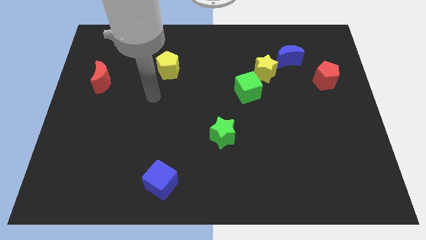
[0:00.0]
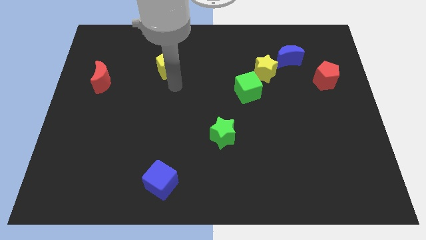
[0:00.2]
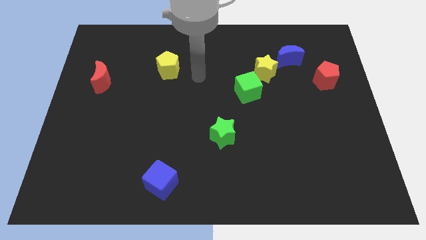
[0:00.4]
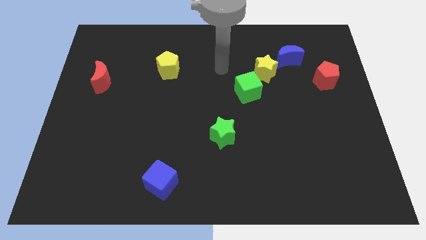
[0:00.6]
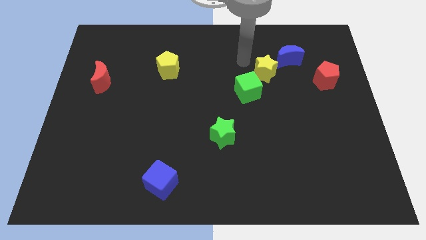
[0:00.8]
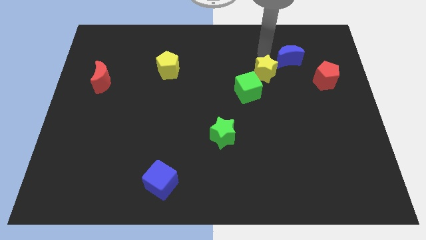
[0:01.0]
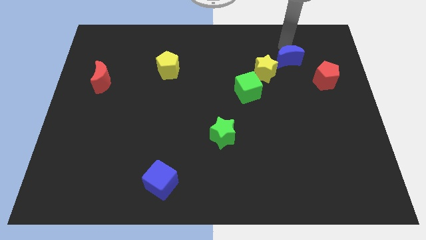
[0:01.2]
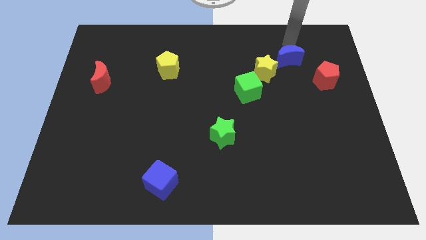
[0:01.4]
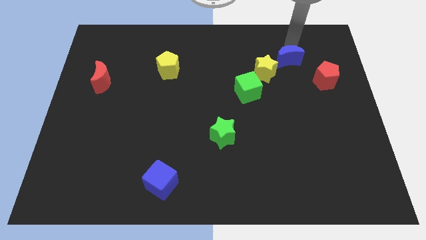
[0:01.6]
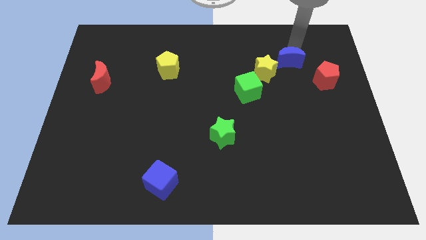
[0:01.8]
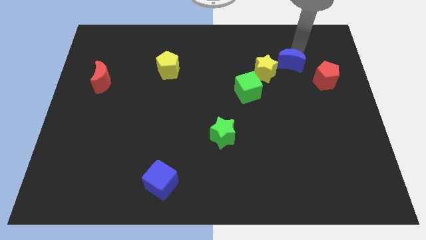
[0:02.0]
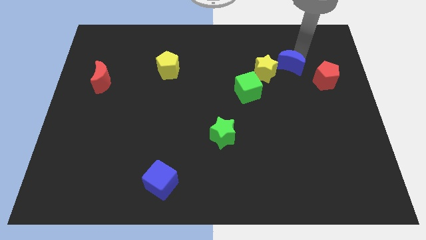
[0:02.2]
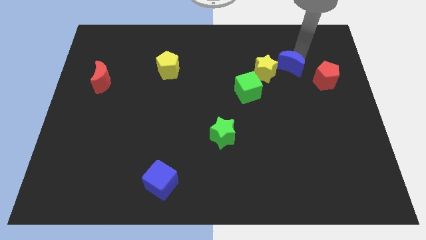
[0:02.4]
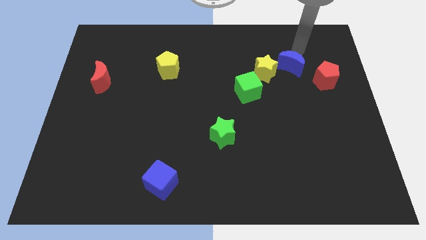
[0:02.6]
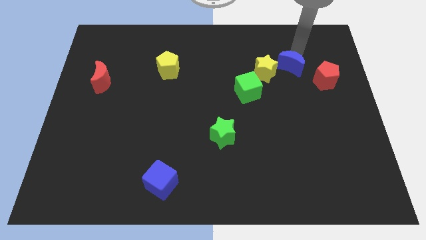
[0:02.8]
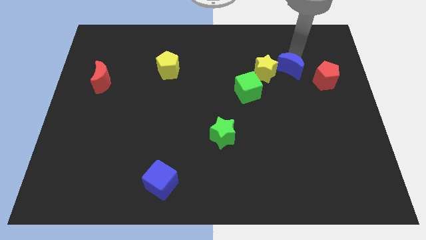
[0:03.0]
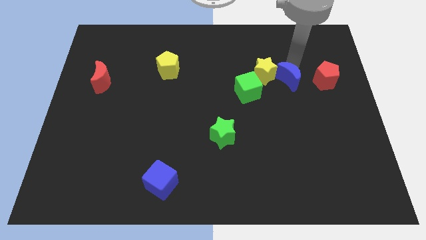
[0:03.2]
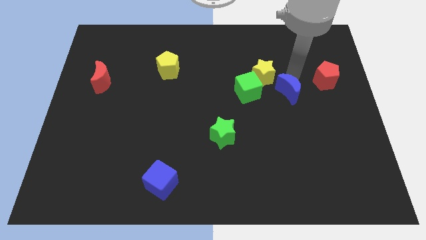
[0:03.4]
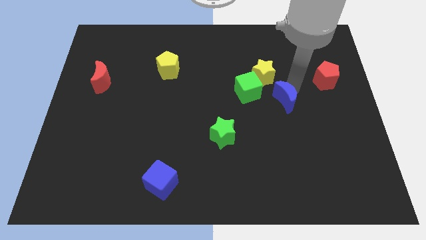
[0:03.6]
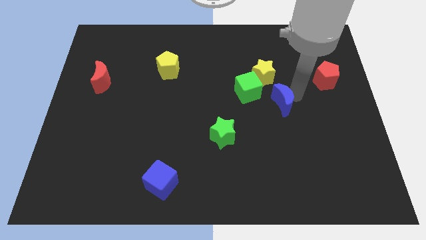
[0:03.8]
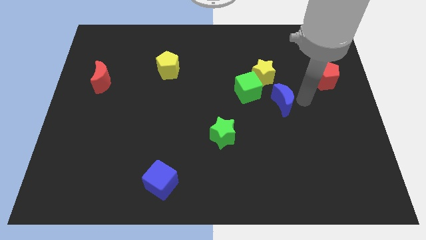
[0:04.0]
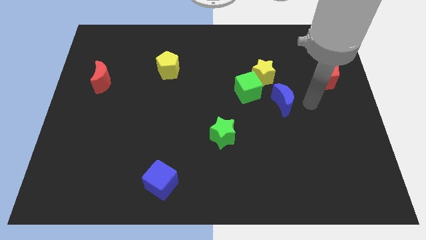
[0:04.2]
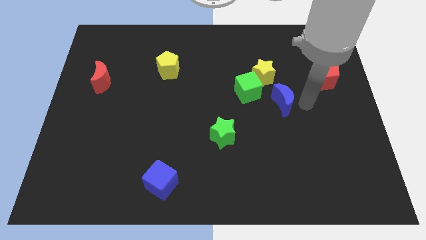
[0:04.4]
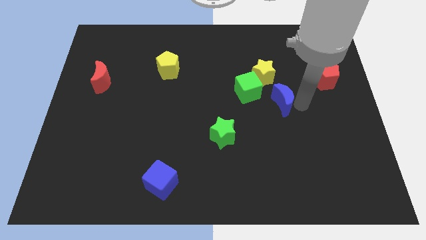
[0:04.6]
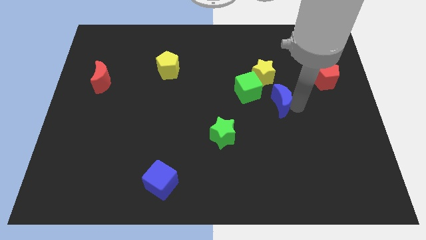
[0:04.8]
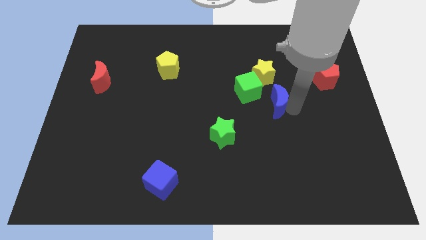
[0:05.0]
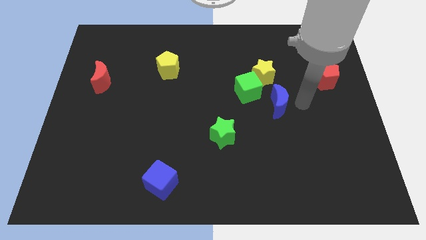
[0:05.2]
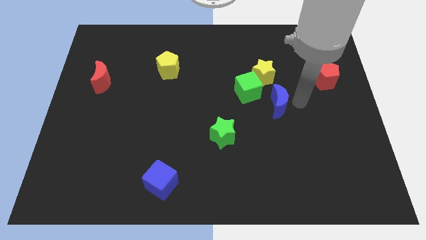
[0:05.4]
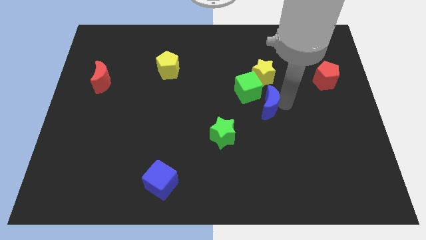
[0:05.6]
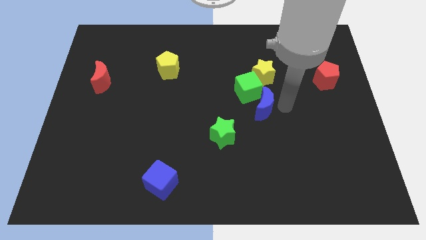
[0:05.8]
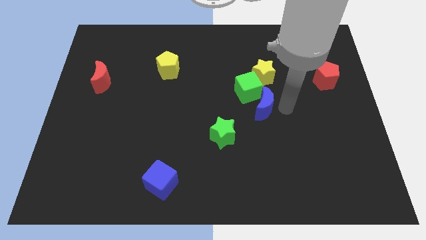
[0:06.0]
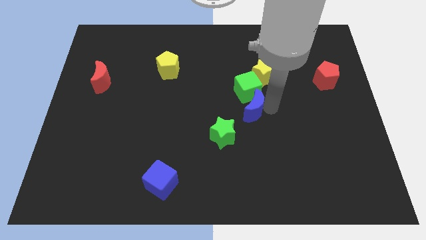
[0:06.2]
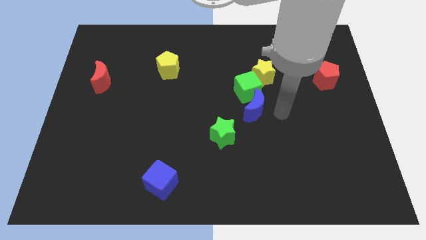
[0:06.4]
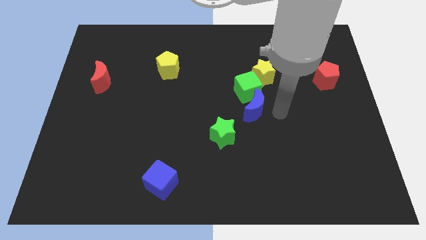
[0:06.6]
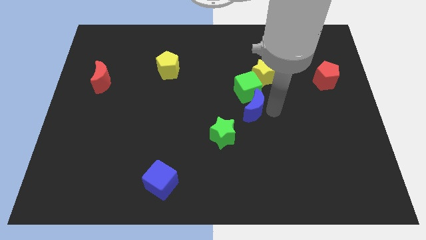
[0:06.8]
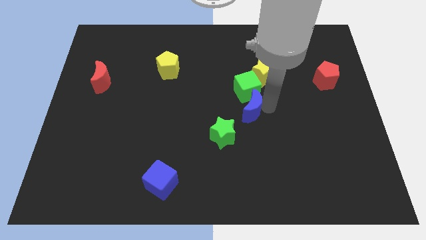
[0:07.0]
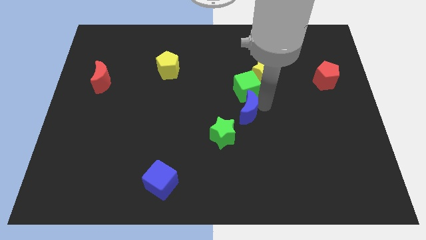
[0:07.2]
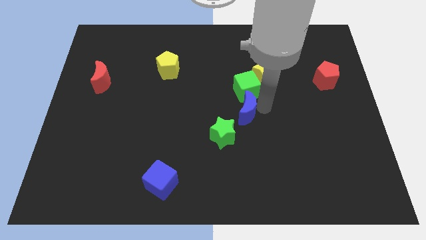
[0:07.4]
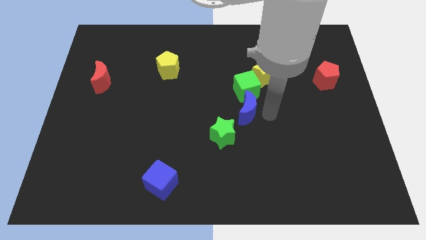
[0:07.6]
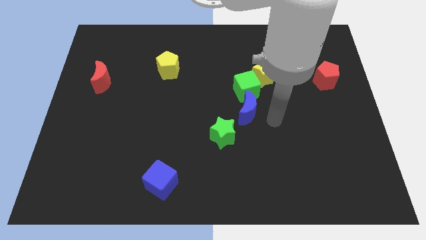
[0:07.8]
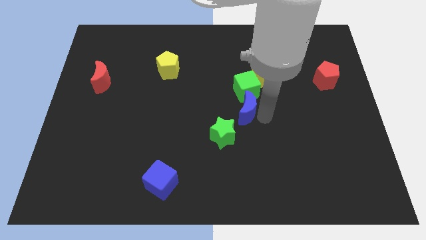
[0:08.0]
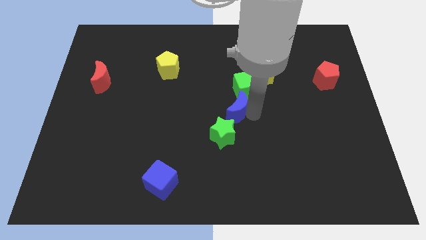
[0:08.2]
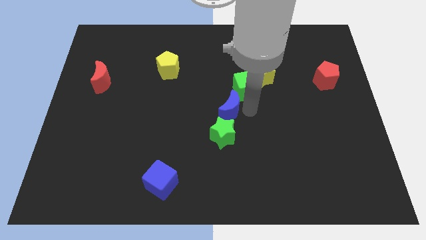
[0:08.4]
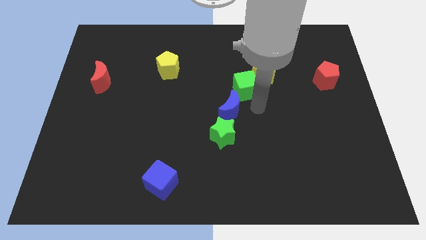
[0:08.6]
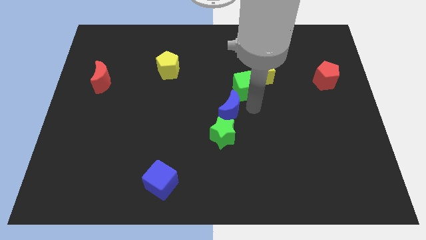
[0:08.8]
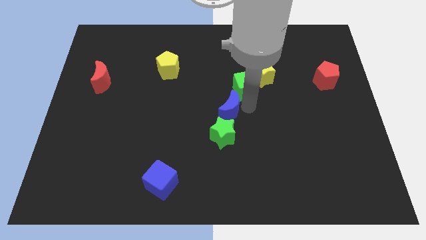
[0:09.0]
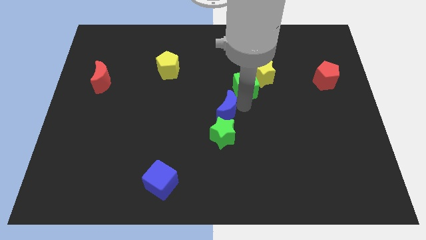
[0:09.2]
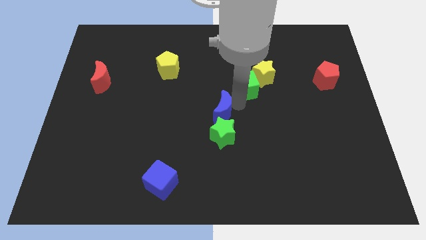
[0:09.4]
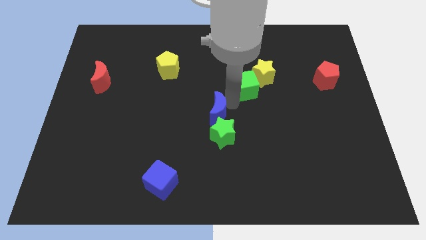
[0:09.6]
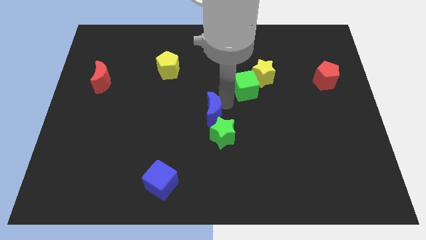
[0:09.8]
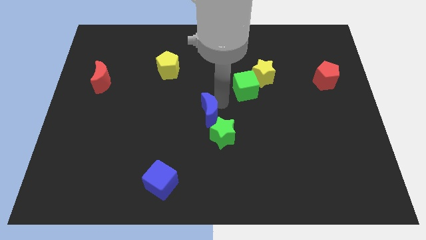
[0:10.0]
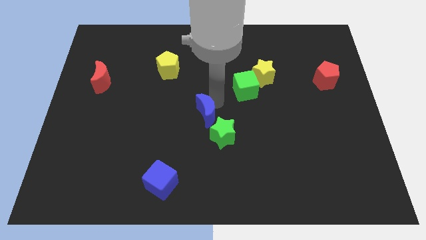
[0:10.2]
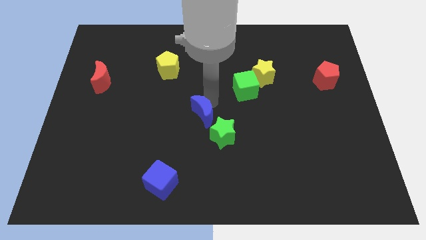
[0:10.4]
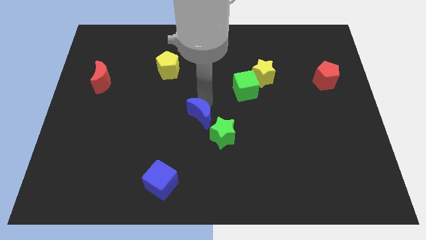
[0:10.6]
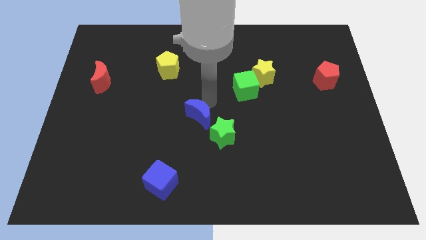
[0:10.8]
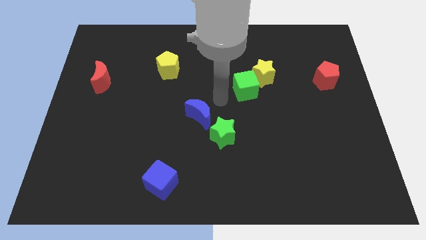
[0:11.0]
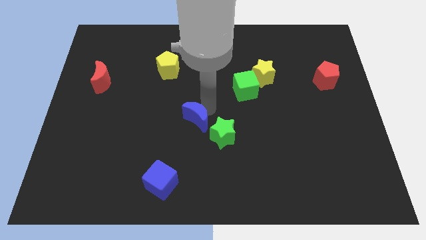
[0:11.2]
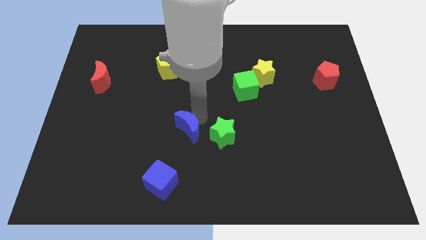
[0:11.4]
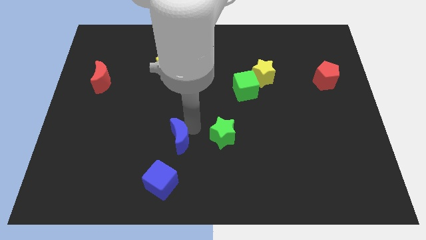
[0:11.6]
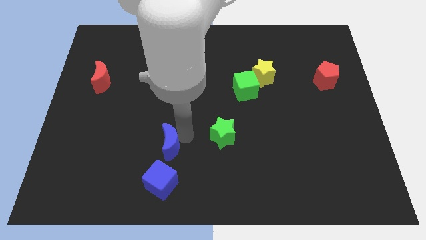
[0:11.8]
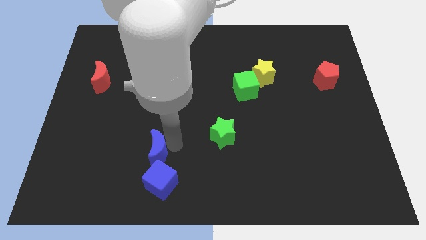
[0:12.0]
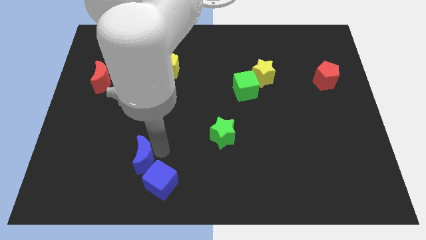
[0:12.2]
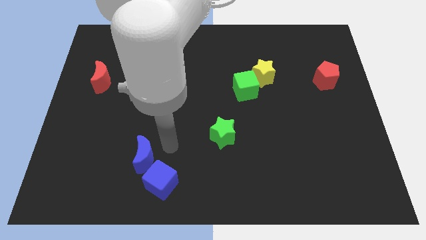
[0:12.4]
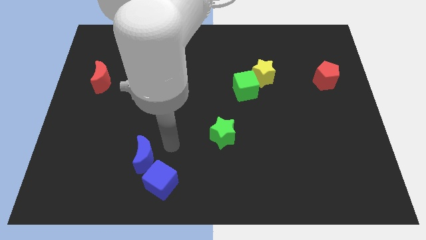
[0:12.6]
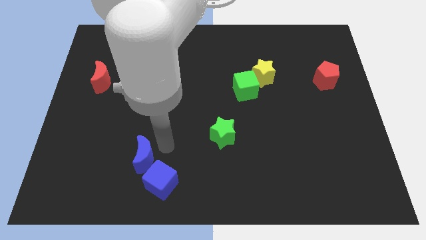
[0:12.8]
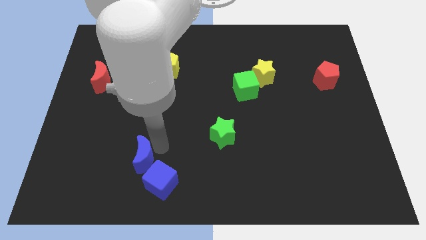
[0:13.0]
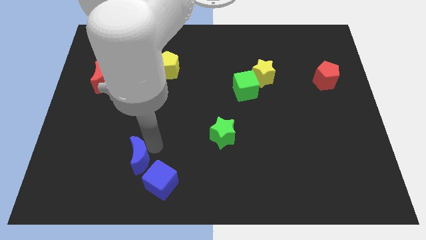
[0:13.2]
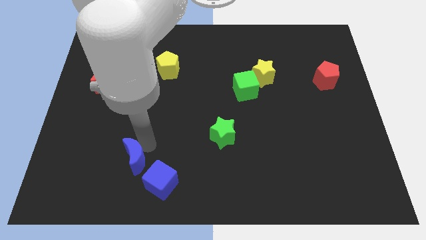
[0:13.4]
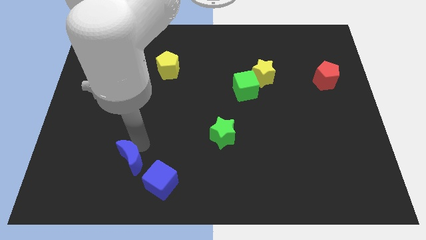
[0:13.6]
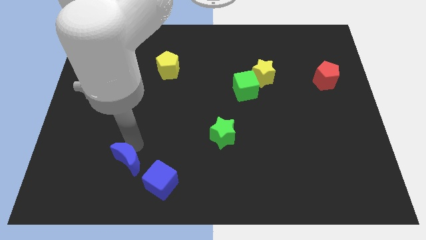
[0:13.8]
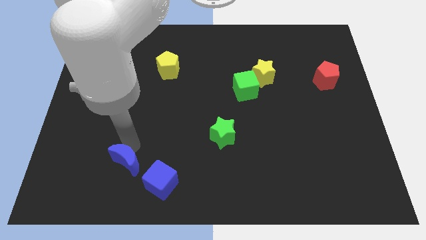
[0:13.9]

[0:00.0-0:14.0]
move the blue moon to the left side of the blue cube

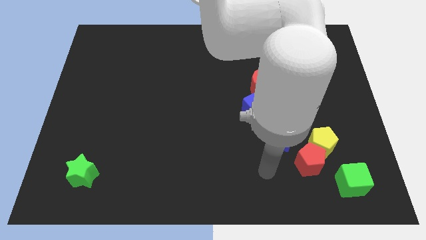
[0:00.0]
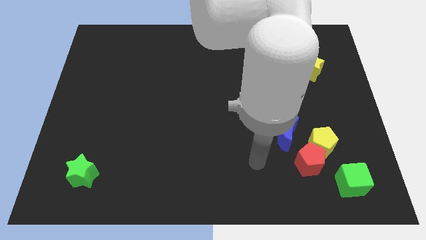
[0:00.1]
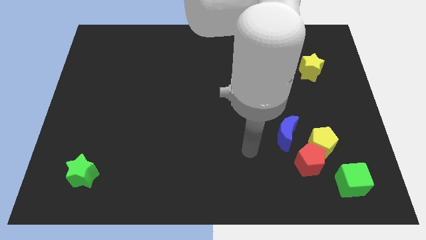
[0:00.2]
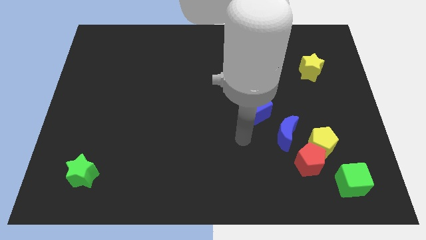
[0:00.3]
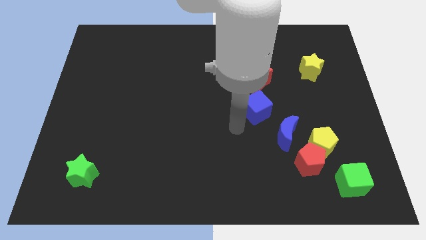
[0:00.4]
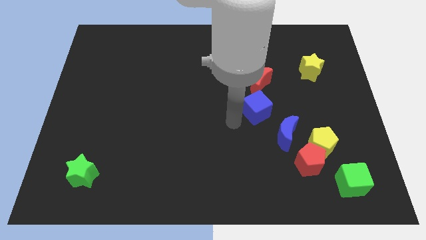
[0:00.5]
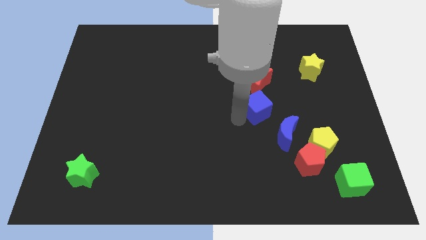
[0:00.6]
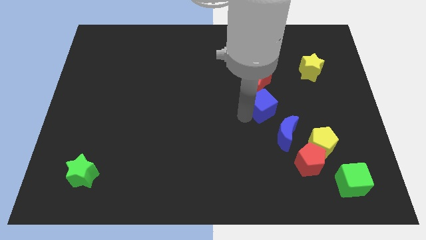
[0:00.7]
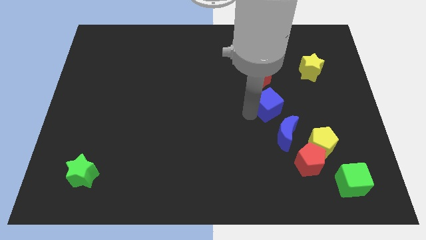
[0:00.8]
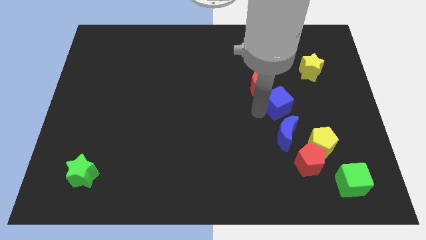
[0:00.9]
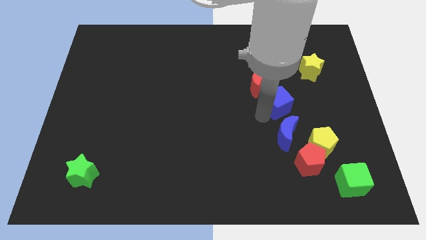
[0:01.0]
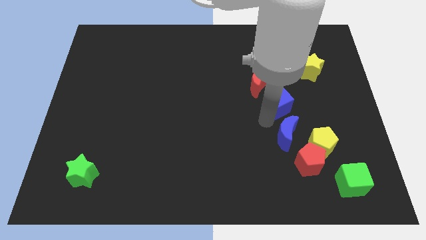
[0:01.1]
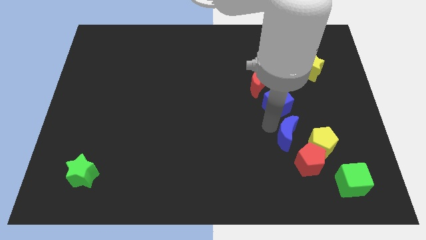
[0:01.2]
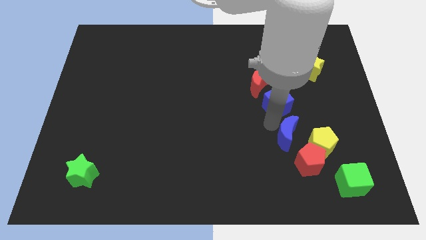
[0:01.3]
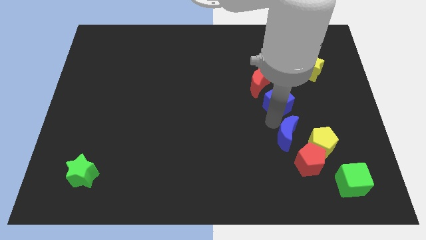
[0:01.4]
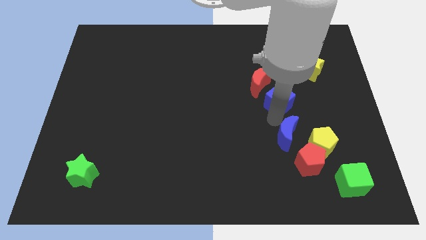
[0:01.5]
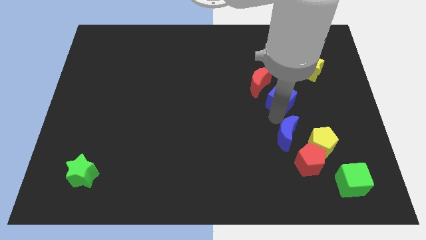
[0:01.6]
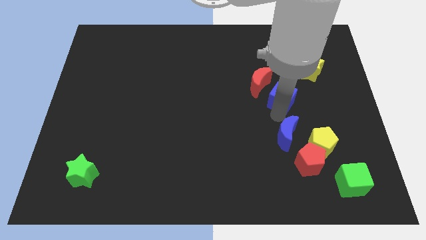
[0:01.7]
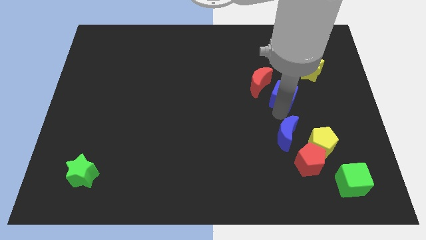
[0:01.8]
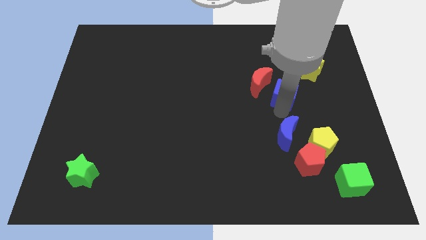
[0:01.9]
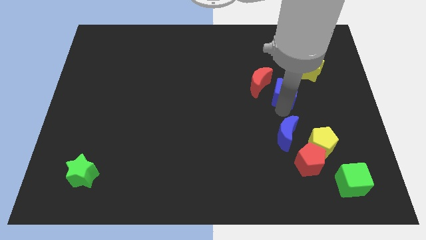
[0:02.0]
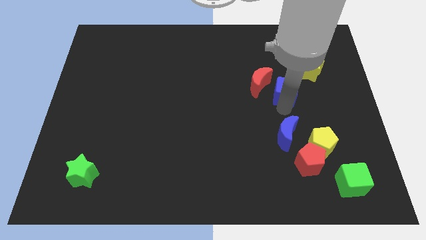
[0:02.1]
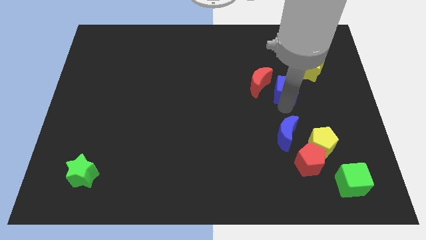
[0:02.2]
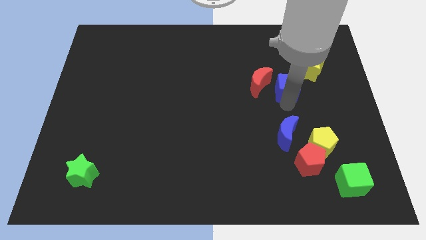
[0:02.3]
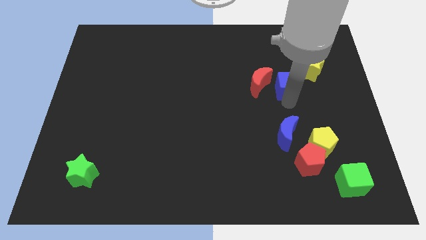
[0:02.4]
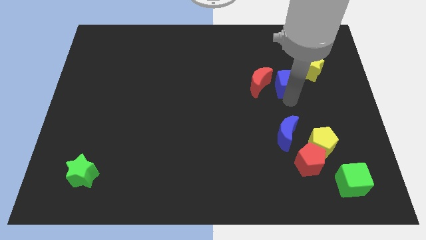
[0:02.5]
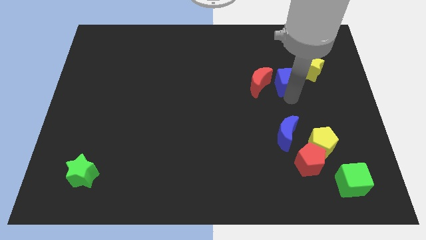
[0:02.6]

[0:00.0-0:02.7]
put the blue cube to the left of the yellow star
